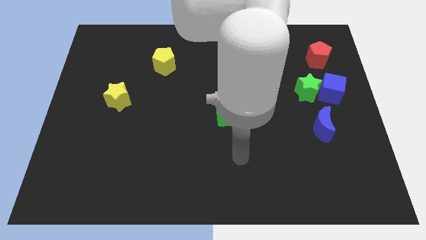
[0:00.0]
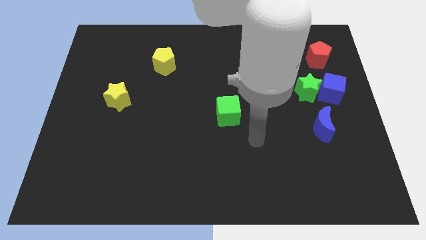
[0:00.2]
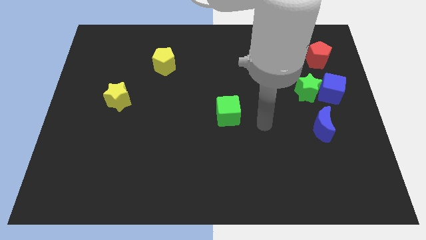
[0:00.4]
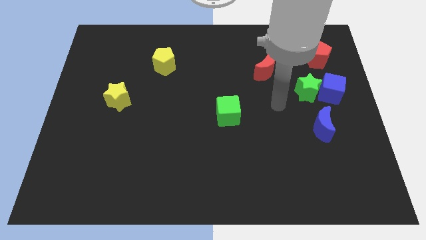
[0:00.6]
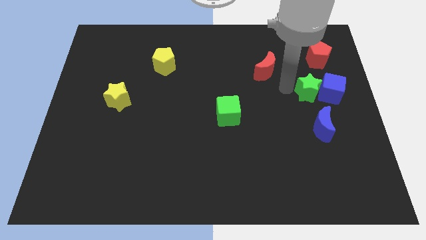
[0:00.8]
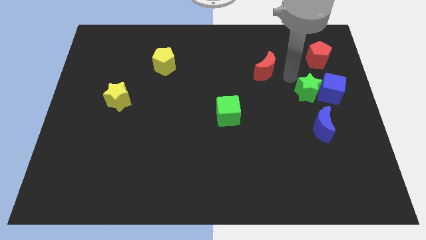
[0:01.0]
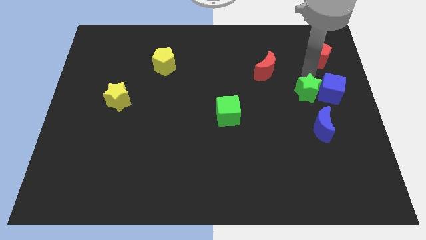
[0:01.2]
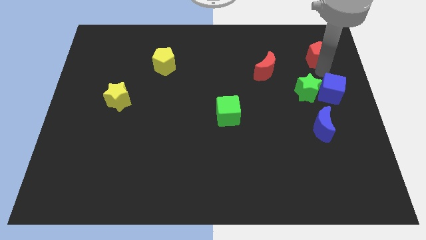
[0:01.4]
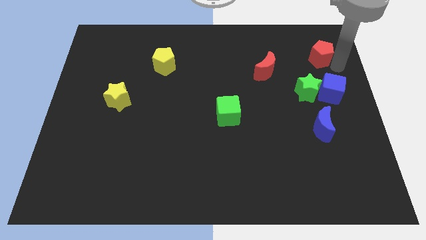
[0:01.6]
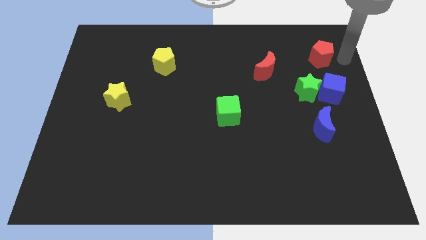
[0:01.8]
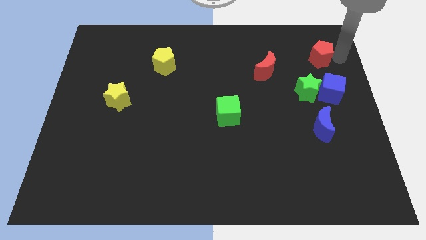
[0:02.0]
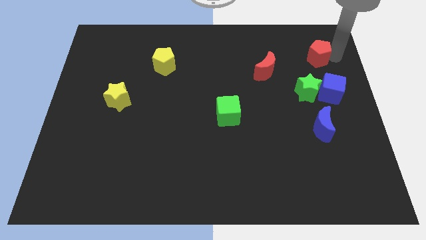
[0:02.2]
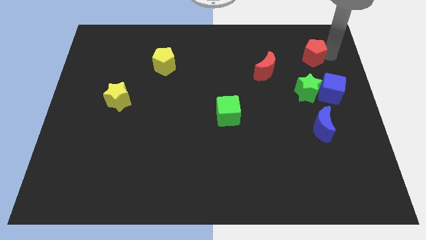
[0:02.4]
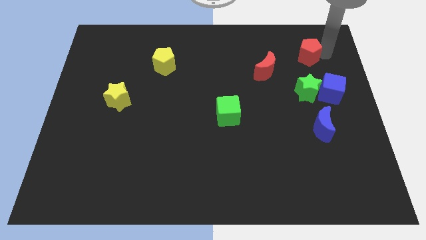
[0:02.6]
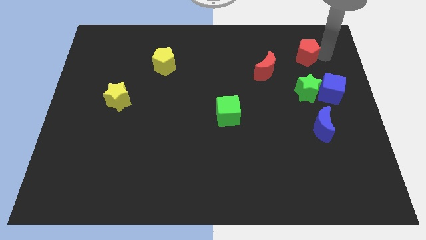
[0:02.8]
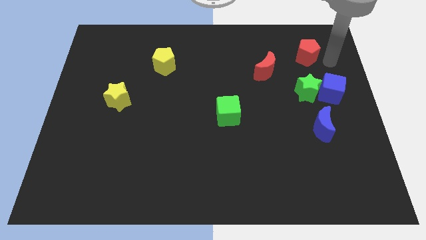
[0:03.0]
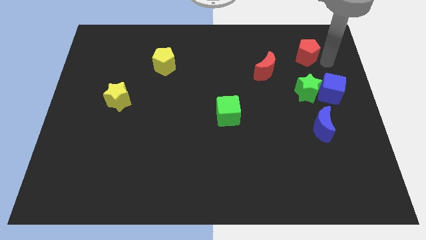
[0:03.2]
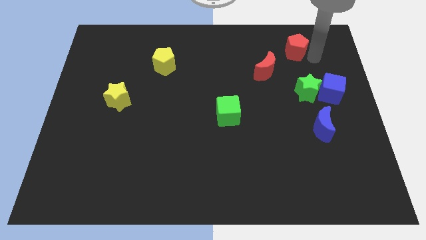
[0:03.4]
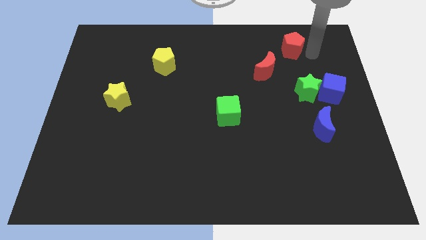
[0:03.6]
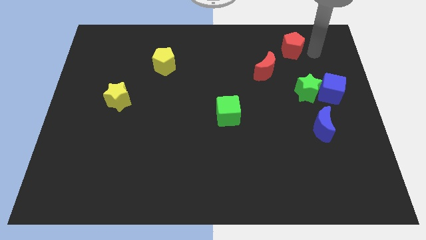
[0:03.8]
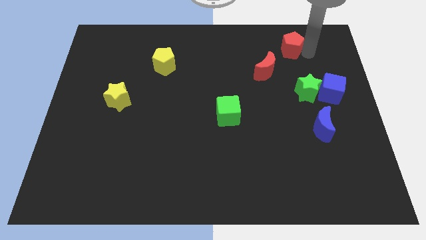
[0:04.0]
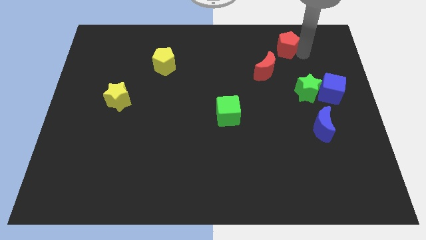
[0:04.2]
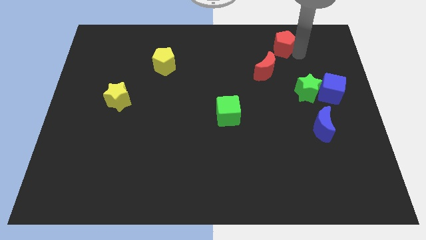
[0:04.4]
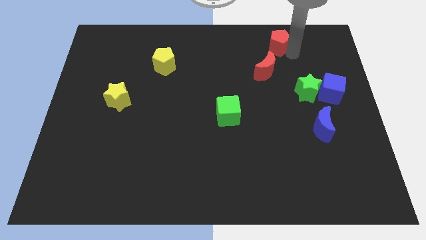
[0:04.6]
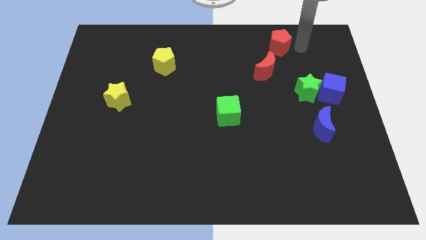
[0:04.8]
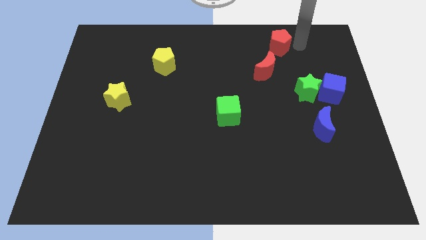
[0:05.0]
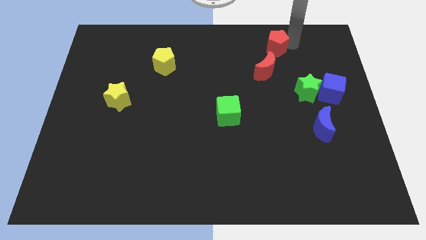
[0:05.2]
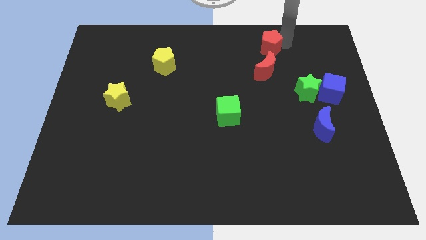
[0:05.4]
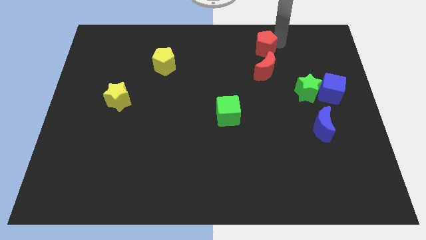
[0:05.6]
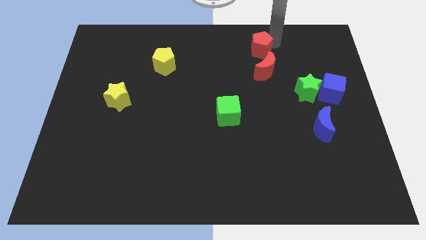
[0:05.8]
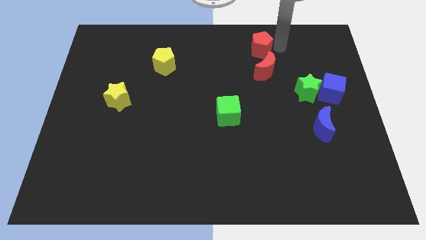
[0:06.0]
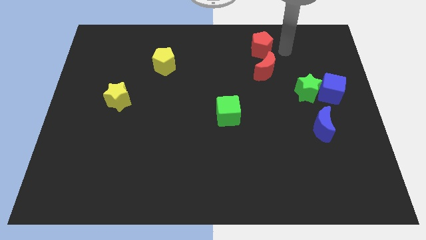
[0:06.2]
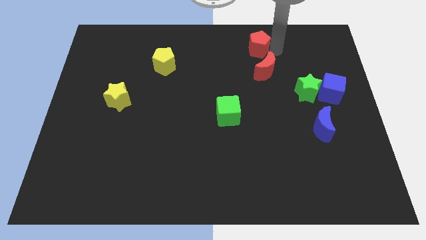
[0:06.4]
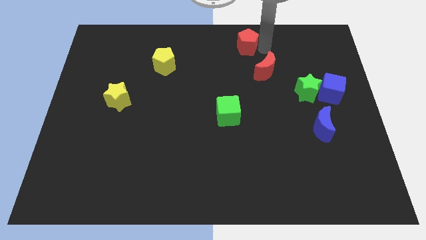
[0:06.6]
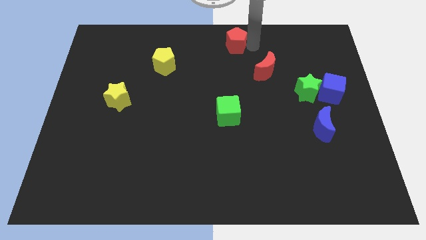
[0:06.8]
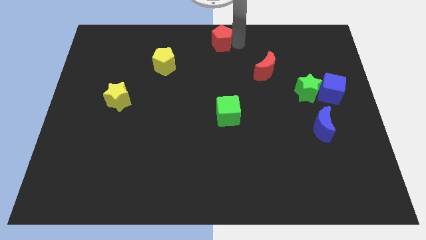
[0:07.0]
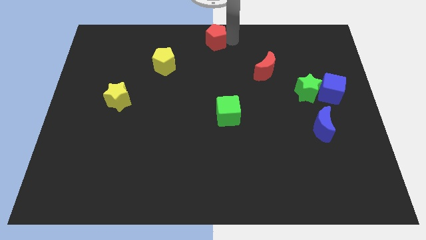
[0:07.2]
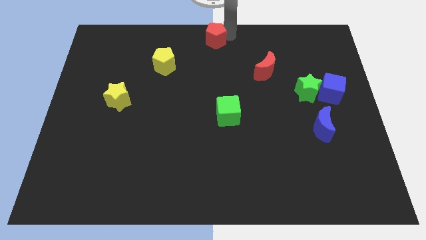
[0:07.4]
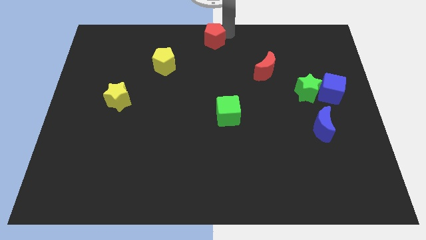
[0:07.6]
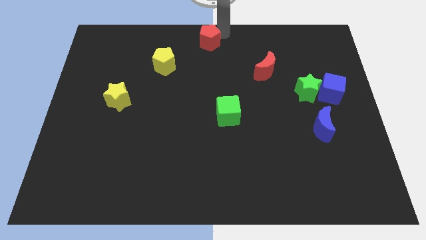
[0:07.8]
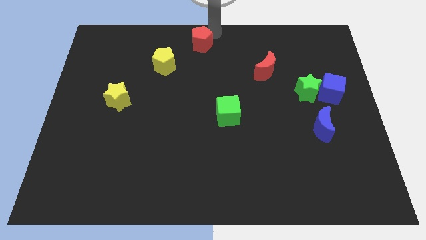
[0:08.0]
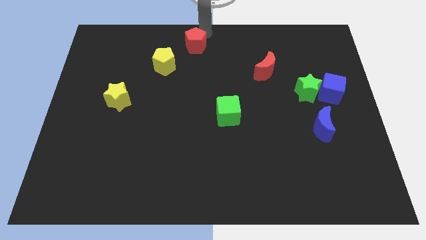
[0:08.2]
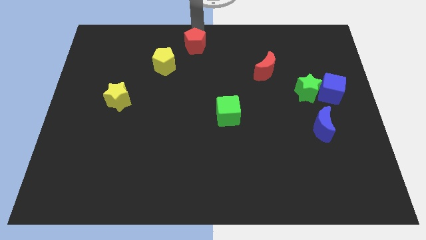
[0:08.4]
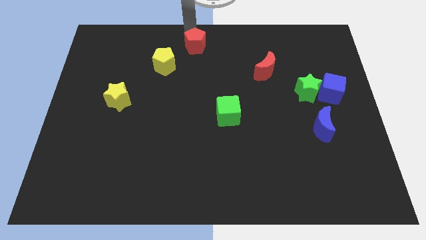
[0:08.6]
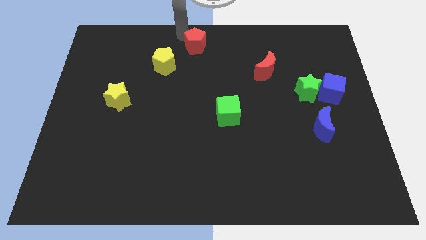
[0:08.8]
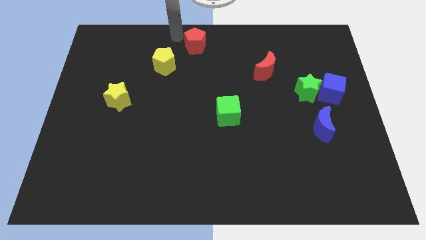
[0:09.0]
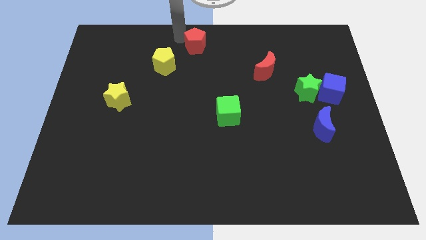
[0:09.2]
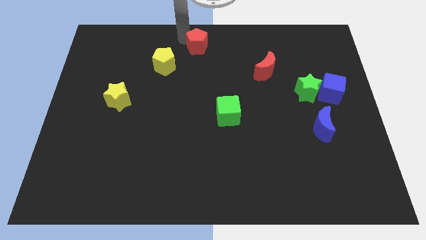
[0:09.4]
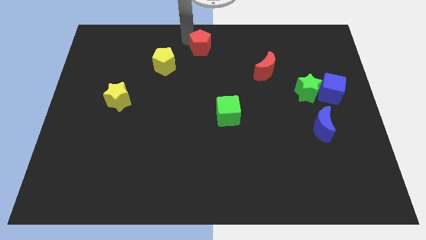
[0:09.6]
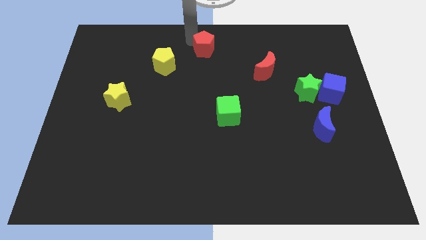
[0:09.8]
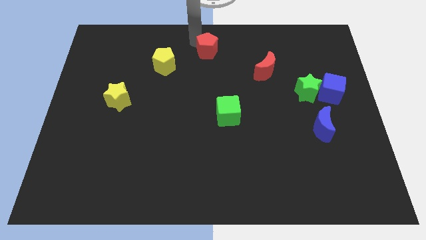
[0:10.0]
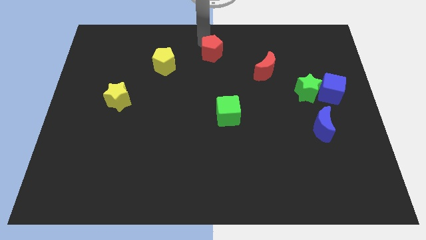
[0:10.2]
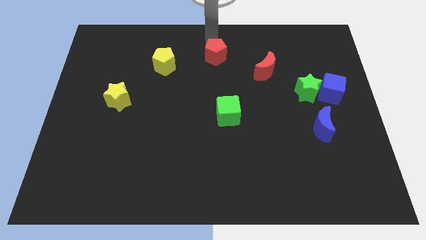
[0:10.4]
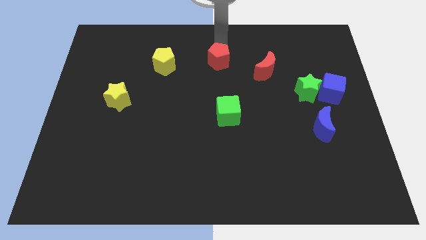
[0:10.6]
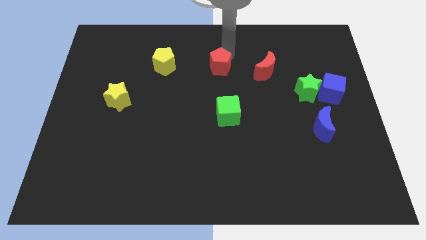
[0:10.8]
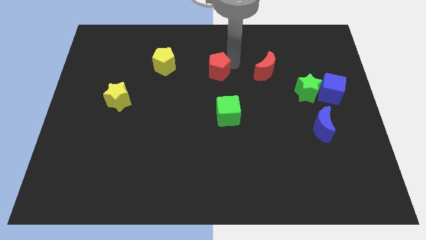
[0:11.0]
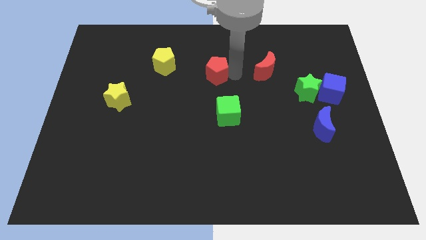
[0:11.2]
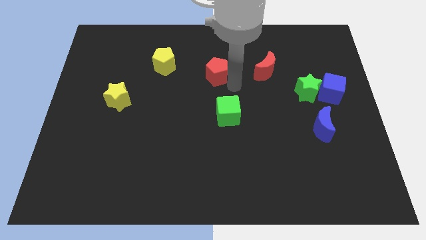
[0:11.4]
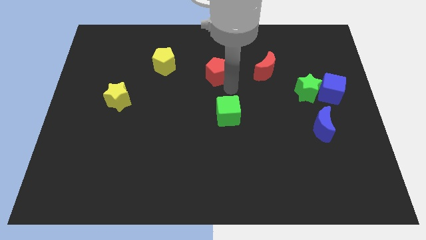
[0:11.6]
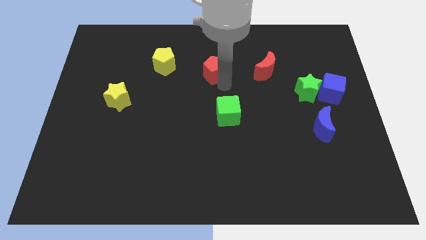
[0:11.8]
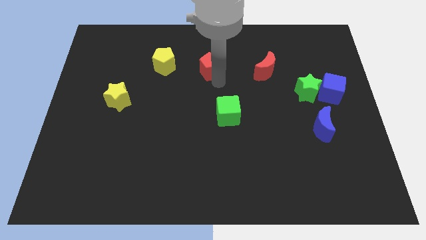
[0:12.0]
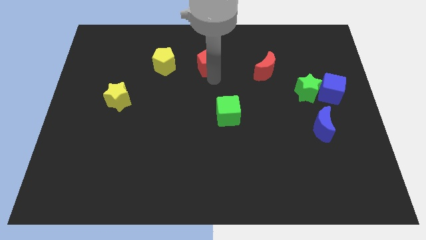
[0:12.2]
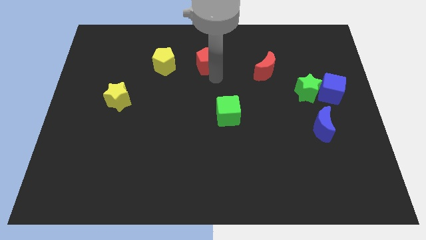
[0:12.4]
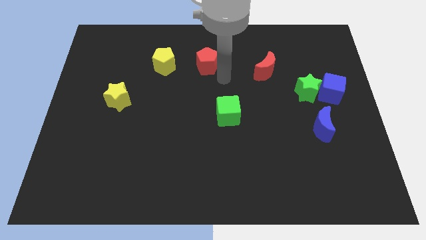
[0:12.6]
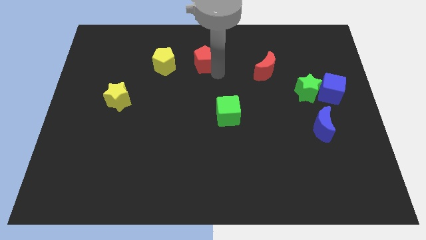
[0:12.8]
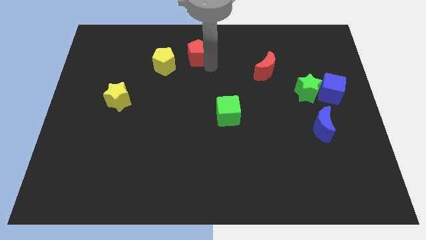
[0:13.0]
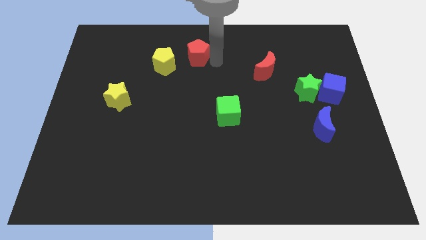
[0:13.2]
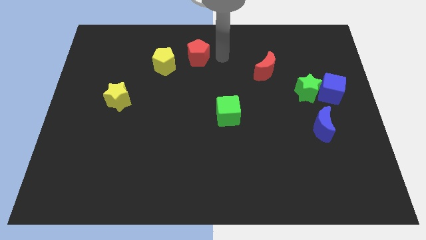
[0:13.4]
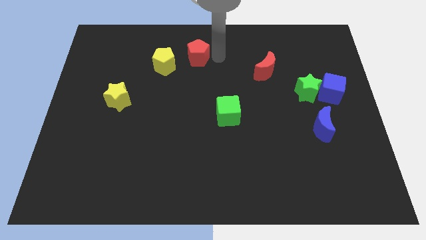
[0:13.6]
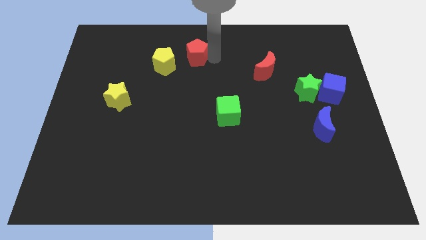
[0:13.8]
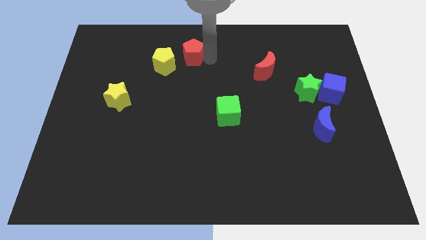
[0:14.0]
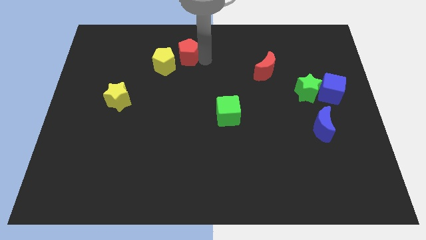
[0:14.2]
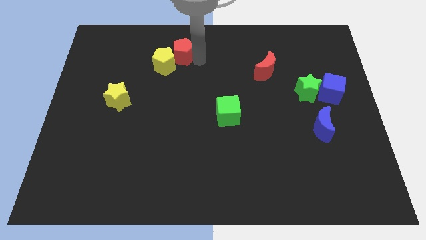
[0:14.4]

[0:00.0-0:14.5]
move the red pentagon to the yellow pentagon
